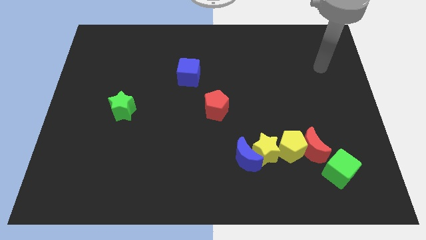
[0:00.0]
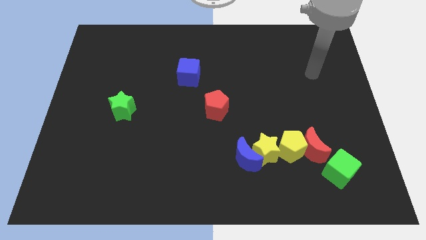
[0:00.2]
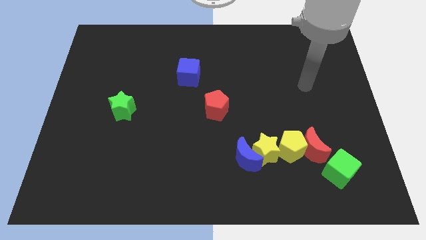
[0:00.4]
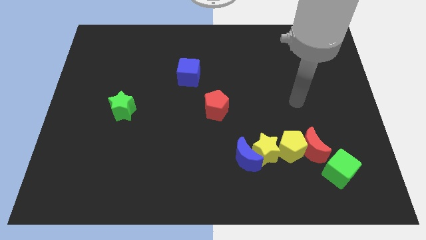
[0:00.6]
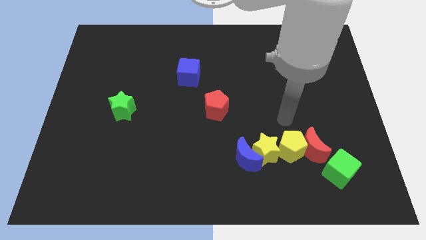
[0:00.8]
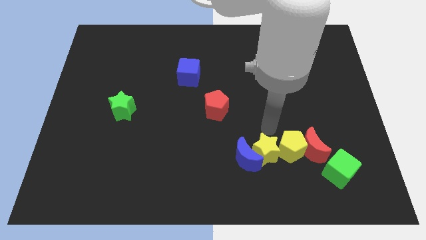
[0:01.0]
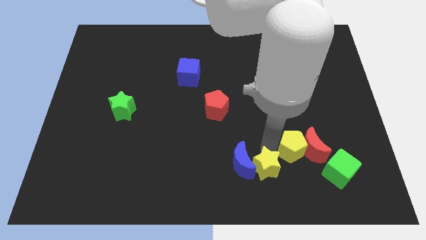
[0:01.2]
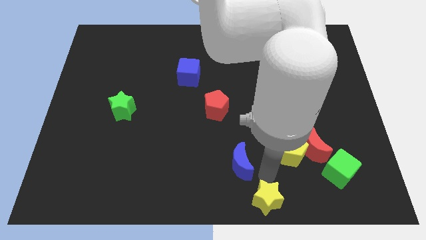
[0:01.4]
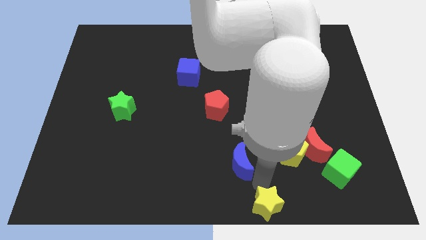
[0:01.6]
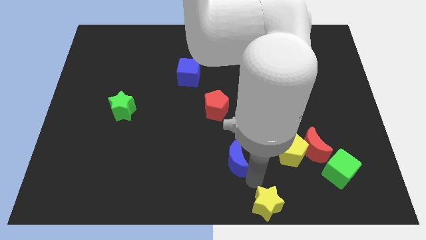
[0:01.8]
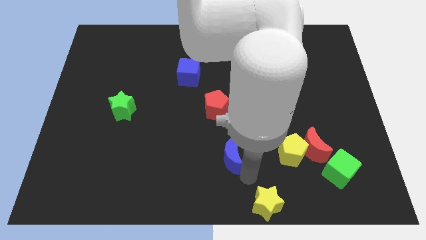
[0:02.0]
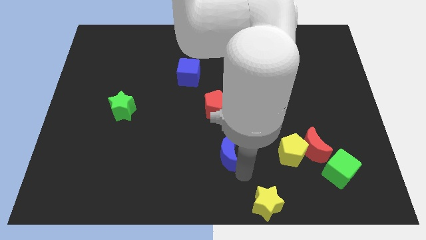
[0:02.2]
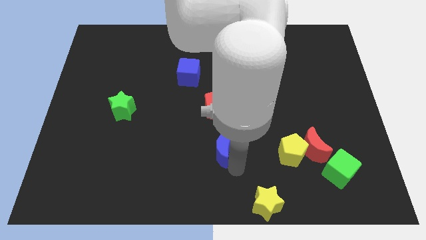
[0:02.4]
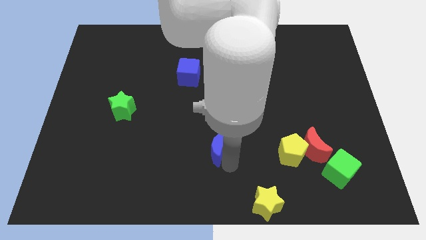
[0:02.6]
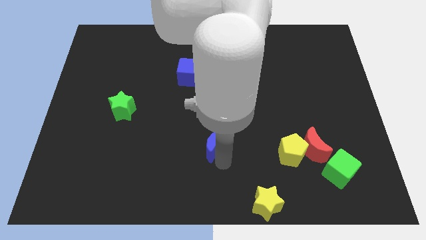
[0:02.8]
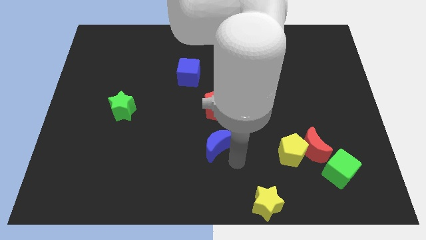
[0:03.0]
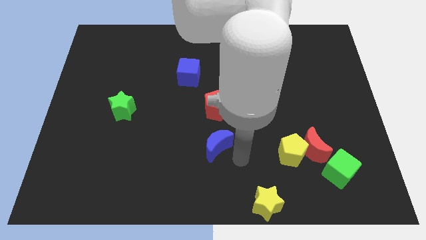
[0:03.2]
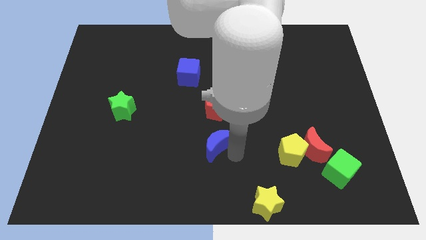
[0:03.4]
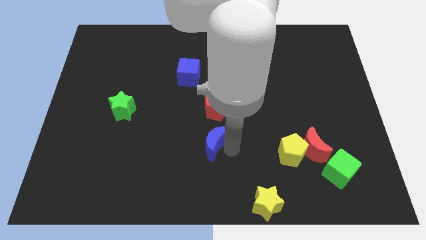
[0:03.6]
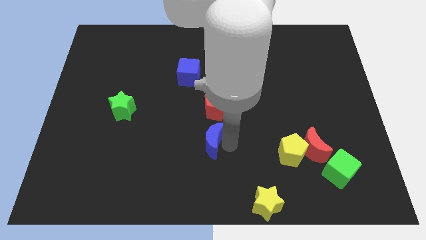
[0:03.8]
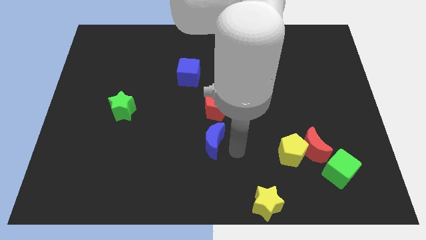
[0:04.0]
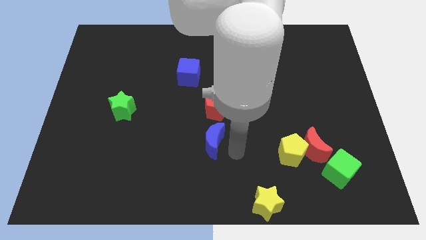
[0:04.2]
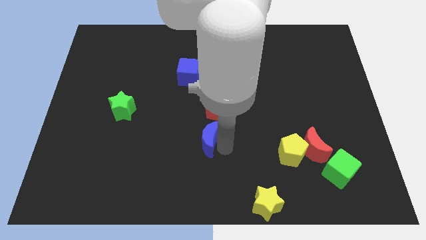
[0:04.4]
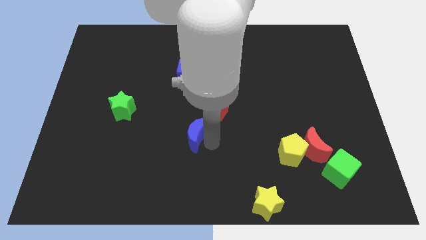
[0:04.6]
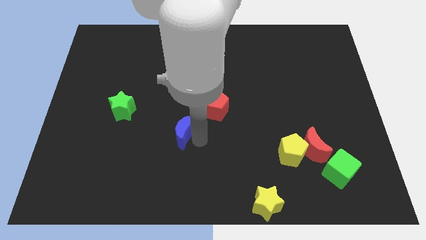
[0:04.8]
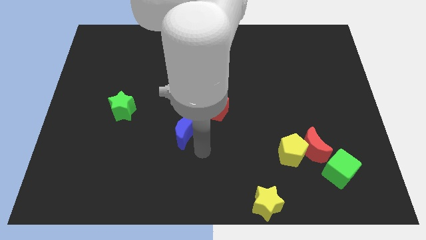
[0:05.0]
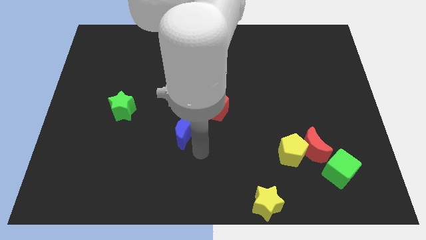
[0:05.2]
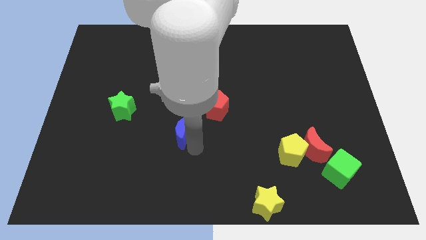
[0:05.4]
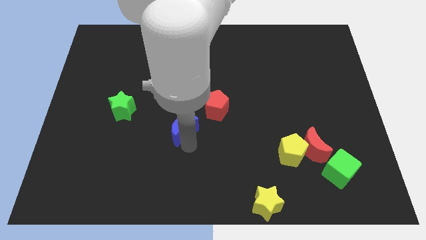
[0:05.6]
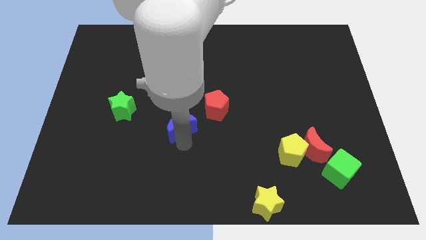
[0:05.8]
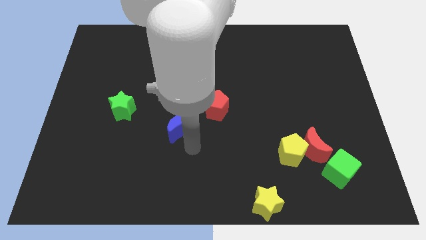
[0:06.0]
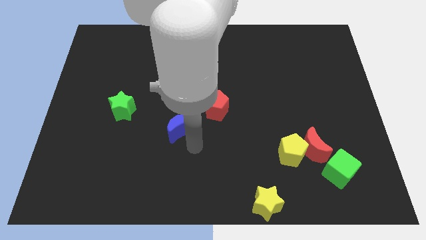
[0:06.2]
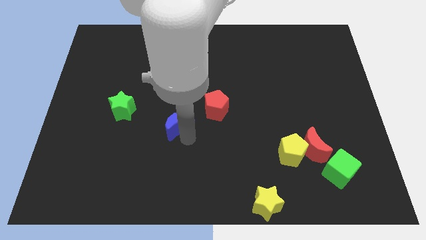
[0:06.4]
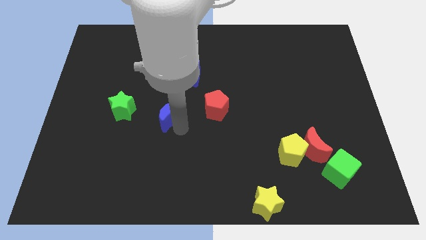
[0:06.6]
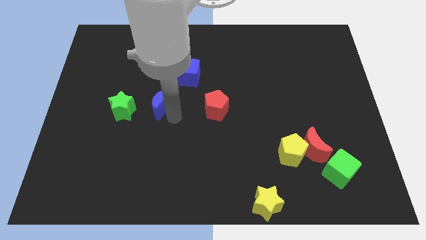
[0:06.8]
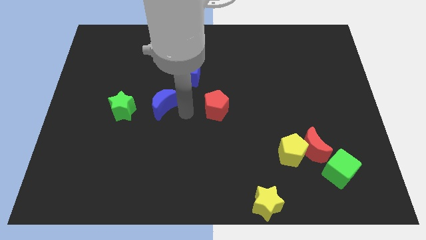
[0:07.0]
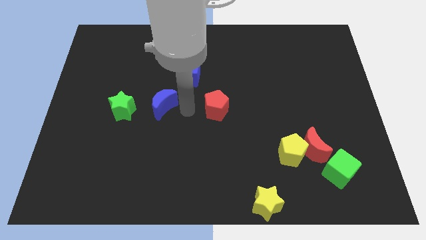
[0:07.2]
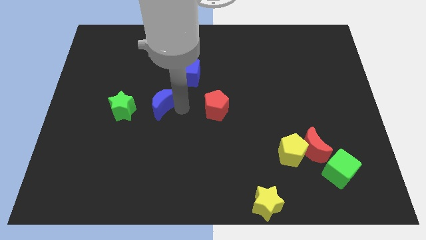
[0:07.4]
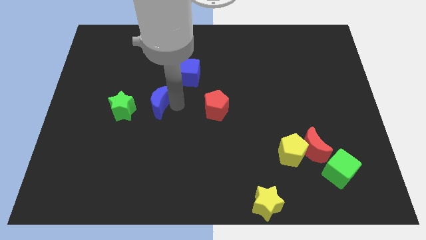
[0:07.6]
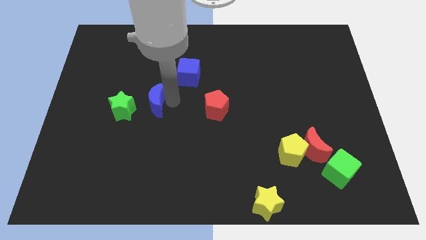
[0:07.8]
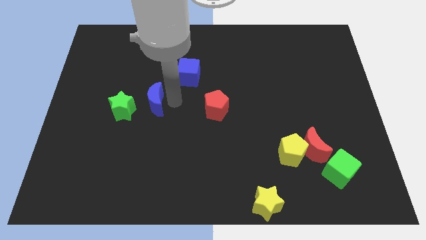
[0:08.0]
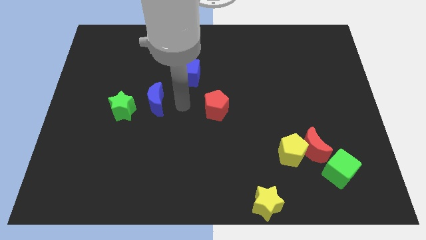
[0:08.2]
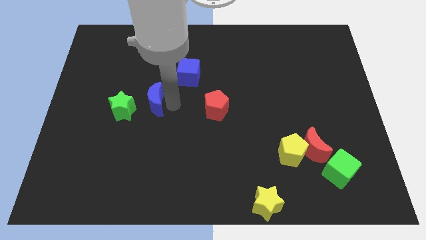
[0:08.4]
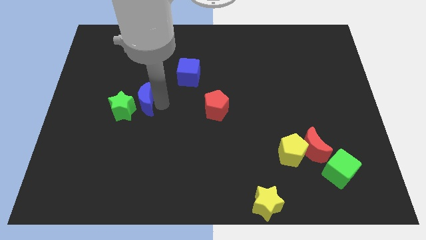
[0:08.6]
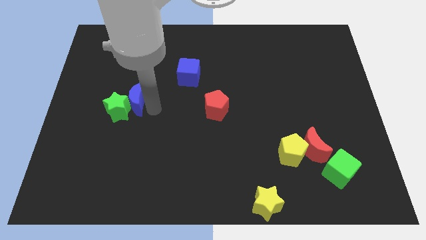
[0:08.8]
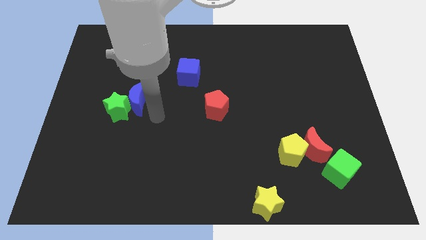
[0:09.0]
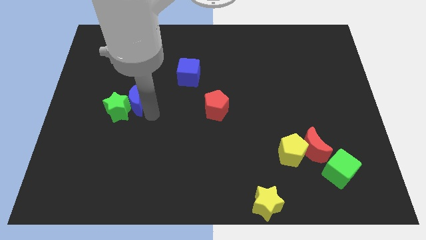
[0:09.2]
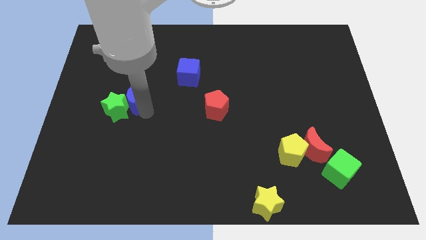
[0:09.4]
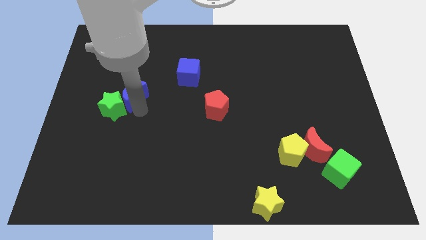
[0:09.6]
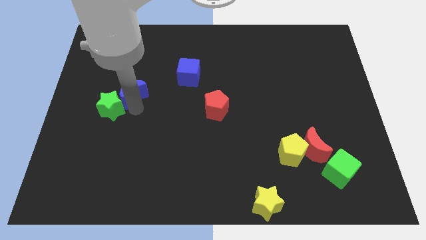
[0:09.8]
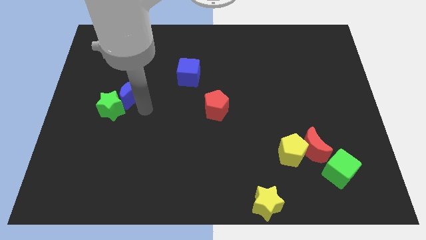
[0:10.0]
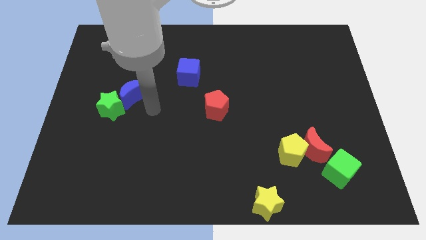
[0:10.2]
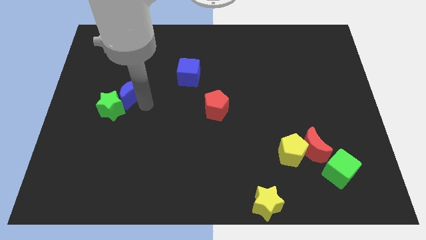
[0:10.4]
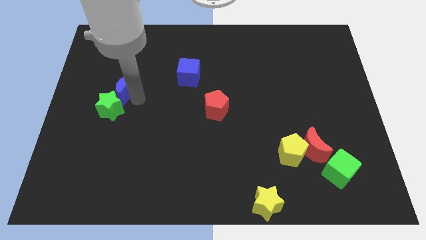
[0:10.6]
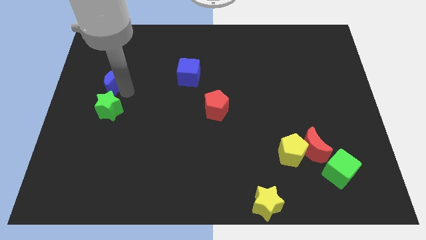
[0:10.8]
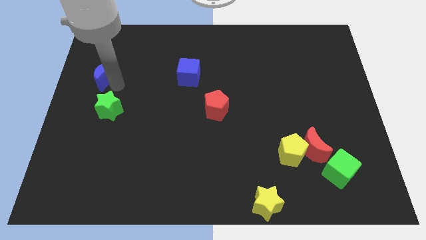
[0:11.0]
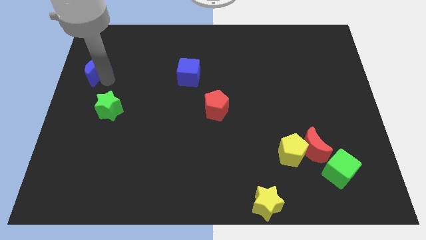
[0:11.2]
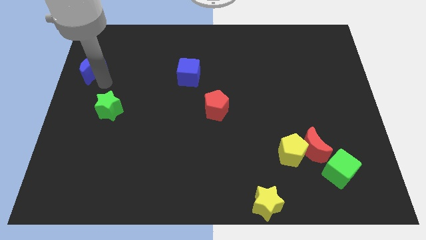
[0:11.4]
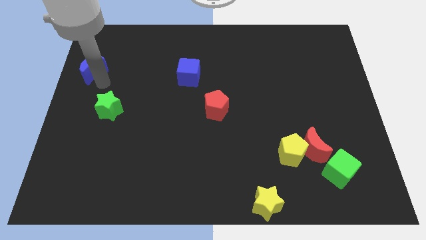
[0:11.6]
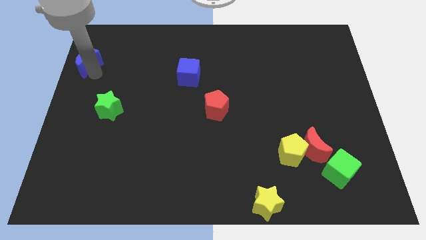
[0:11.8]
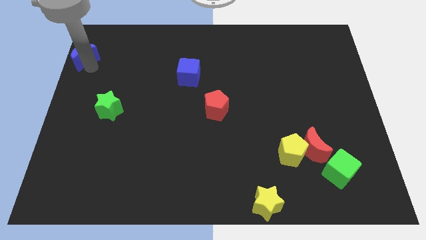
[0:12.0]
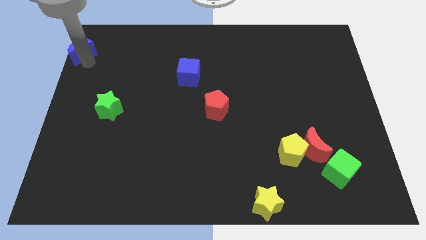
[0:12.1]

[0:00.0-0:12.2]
push the blue moon to the top left corner
